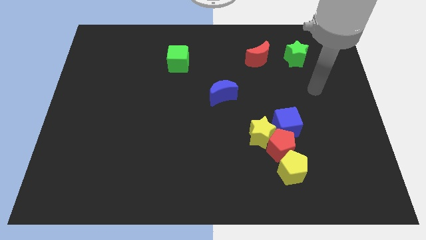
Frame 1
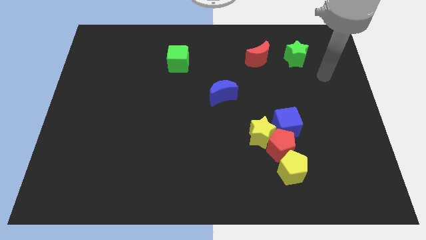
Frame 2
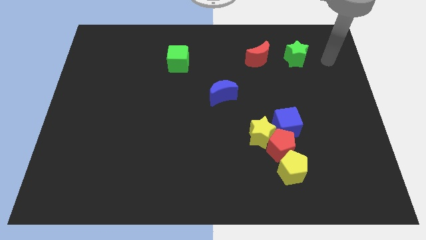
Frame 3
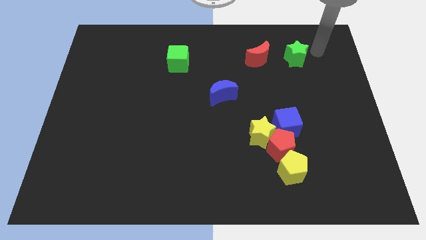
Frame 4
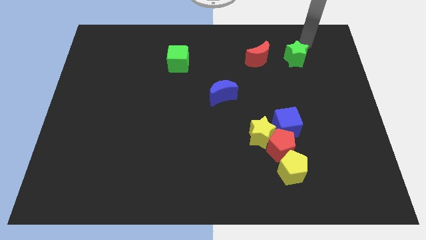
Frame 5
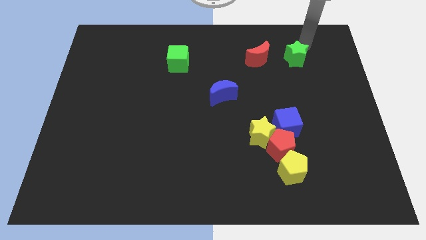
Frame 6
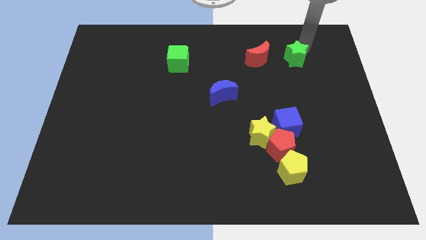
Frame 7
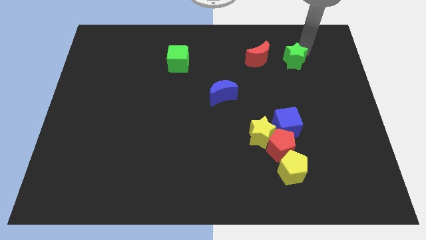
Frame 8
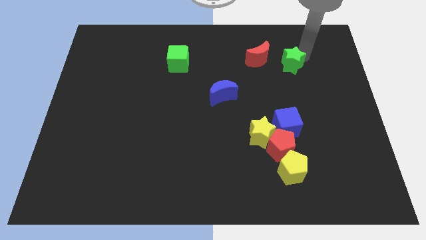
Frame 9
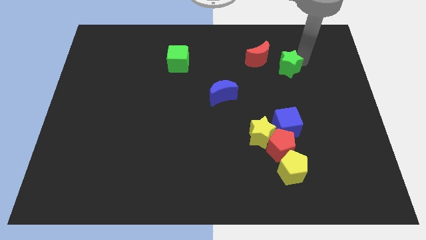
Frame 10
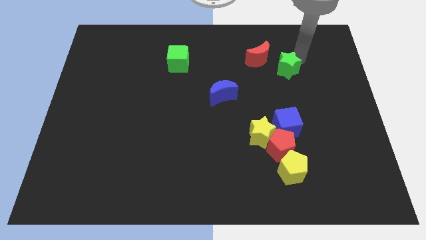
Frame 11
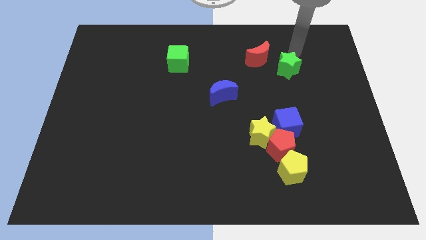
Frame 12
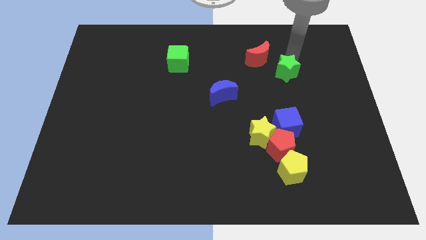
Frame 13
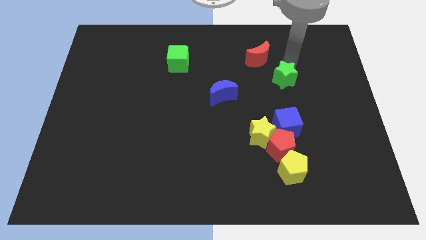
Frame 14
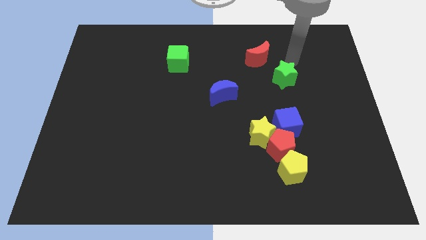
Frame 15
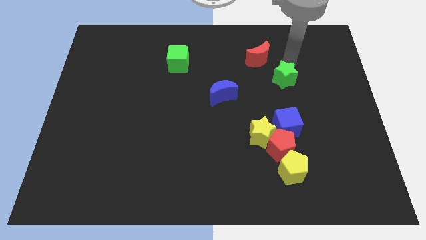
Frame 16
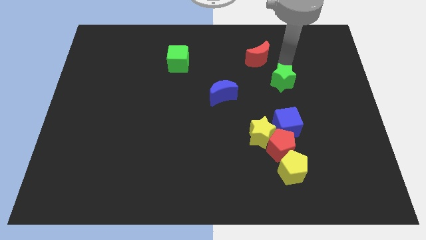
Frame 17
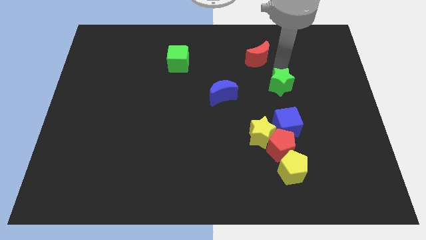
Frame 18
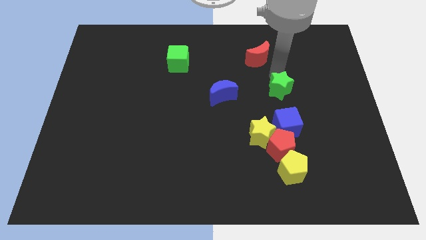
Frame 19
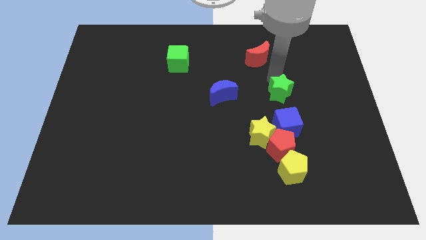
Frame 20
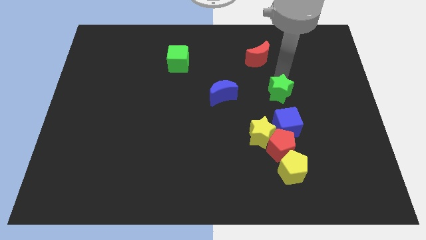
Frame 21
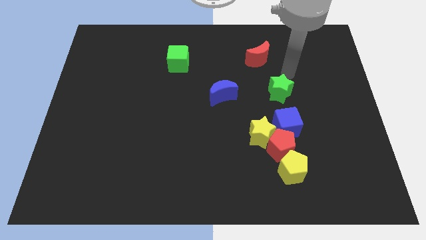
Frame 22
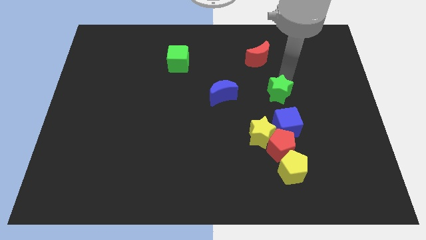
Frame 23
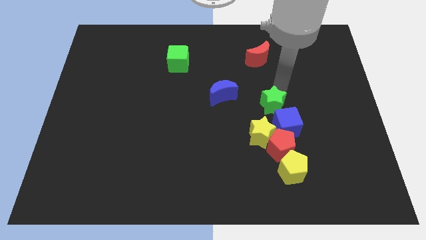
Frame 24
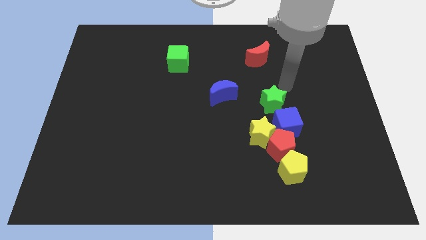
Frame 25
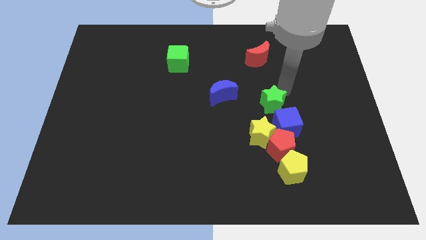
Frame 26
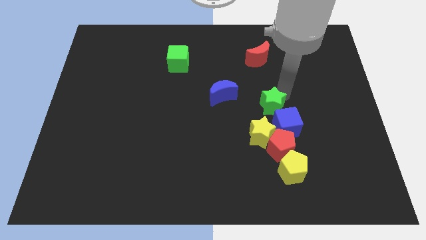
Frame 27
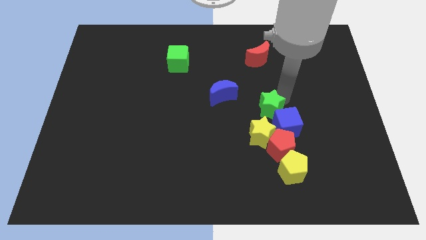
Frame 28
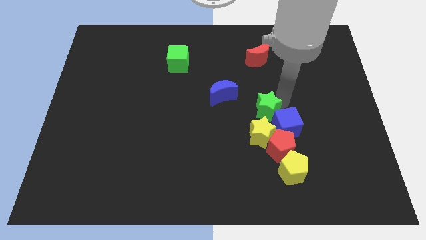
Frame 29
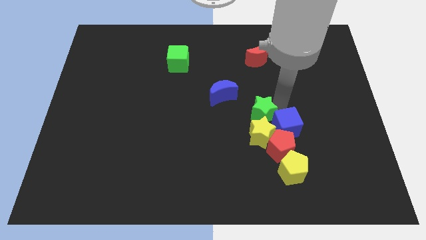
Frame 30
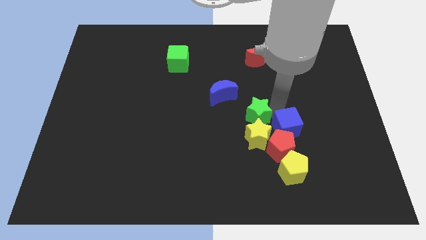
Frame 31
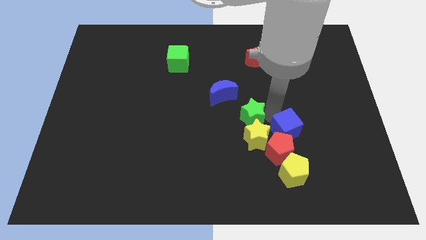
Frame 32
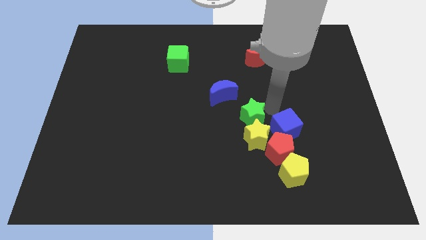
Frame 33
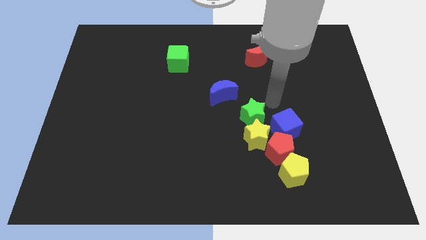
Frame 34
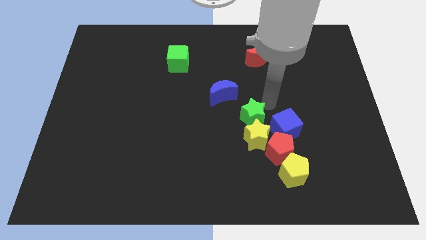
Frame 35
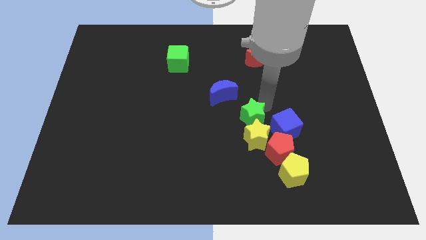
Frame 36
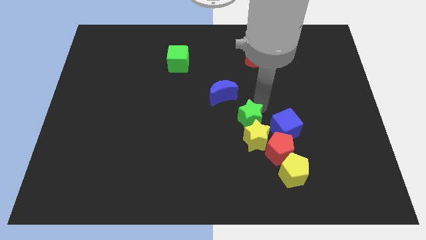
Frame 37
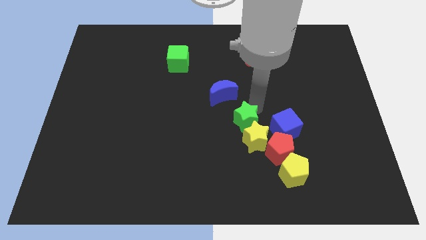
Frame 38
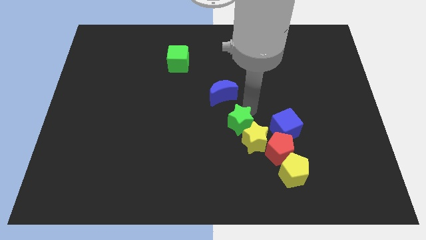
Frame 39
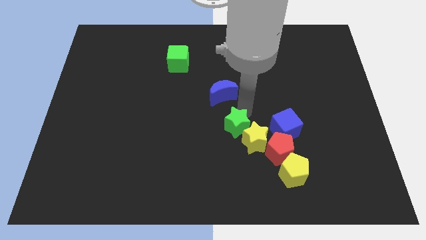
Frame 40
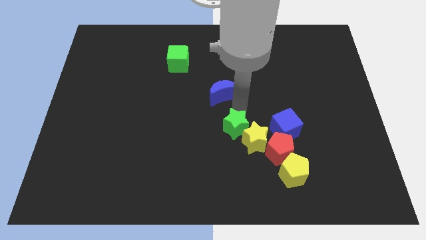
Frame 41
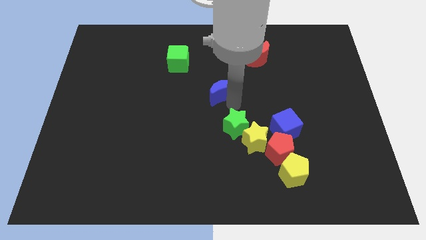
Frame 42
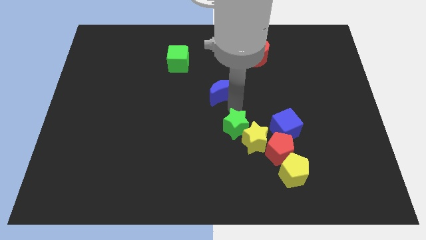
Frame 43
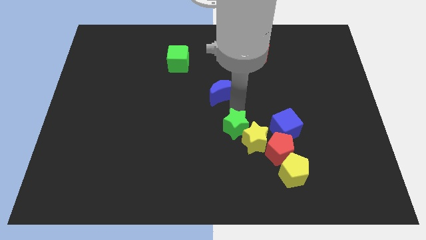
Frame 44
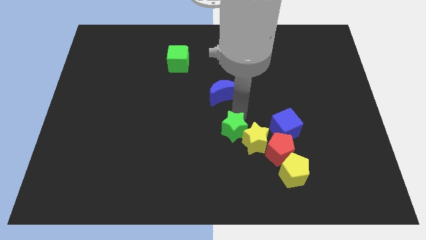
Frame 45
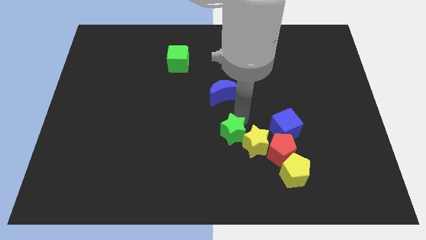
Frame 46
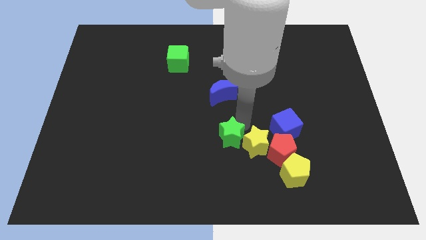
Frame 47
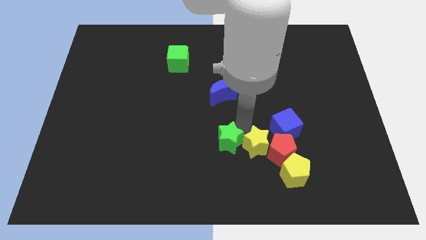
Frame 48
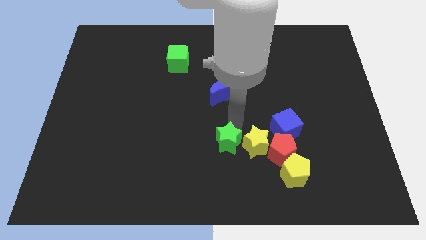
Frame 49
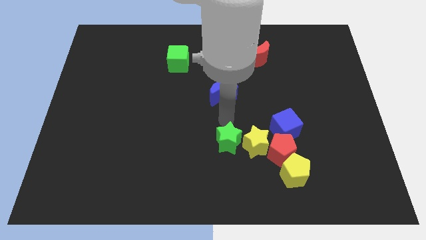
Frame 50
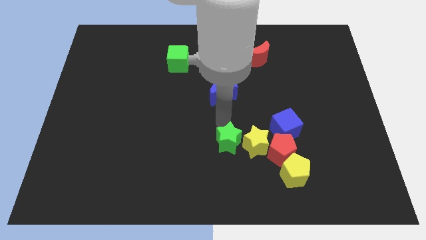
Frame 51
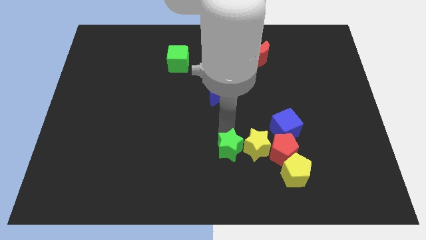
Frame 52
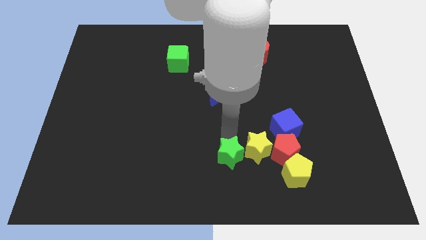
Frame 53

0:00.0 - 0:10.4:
move the green star to the bottom side
